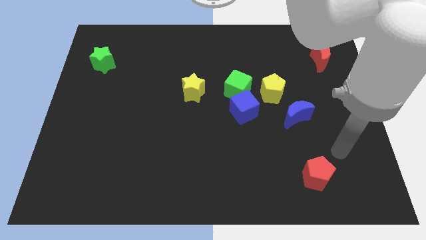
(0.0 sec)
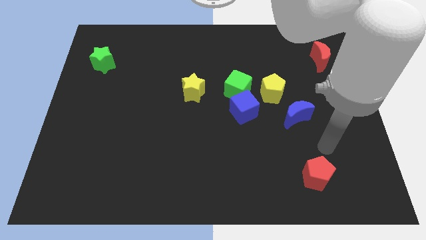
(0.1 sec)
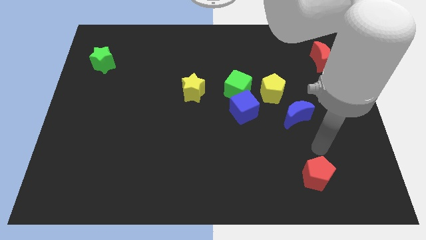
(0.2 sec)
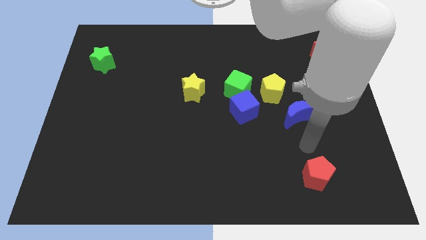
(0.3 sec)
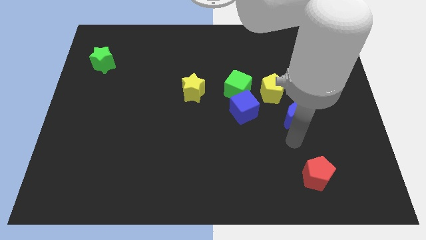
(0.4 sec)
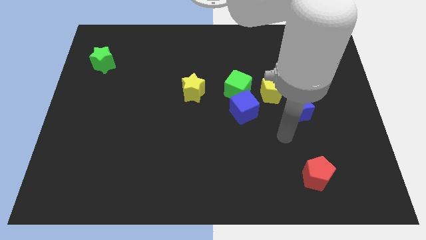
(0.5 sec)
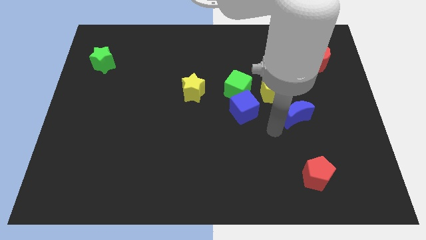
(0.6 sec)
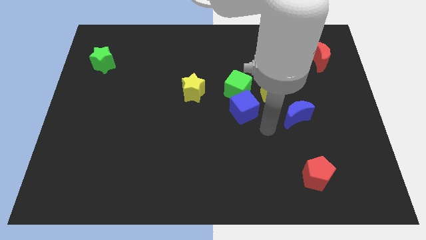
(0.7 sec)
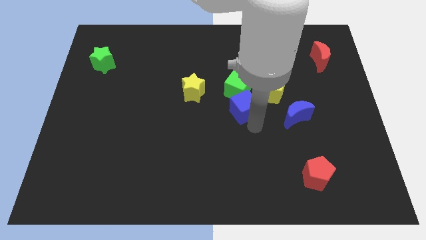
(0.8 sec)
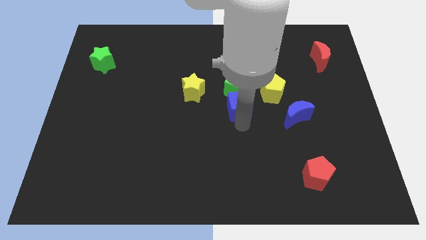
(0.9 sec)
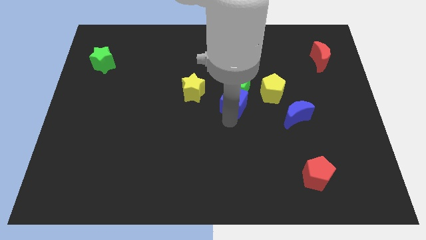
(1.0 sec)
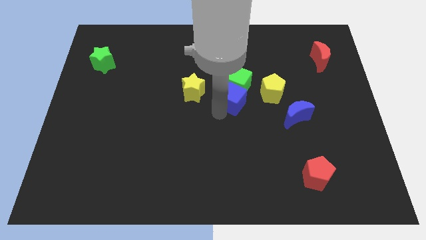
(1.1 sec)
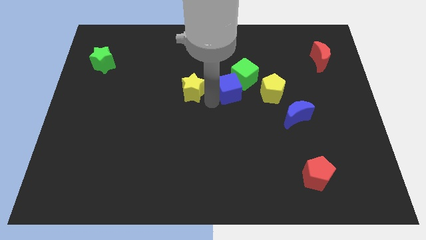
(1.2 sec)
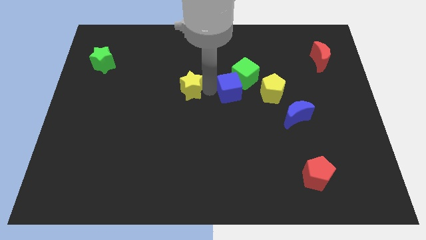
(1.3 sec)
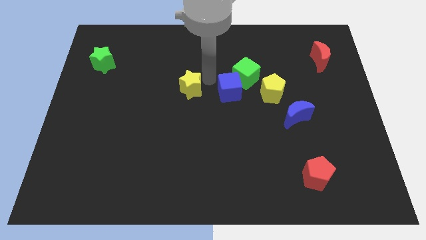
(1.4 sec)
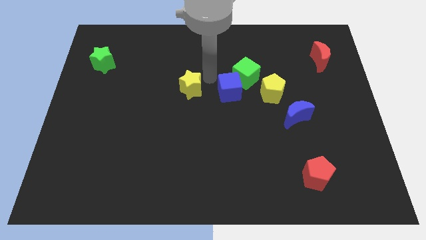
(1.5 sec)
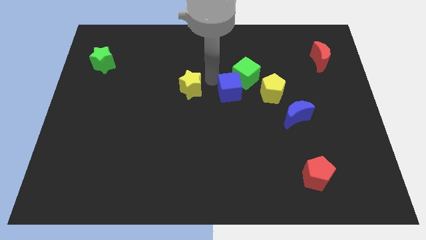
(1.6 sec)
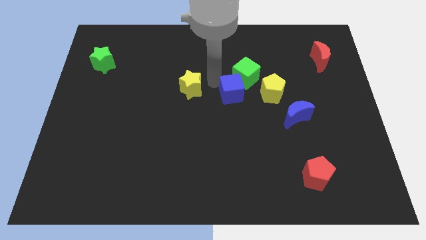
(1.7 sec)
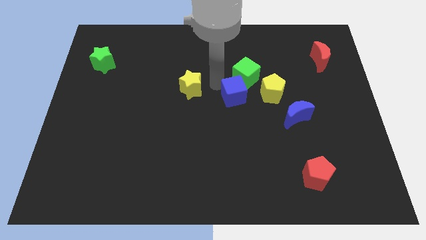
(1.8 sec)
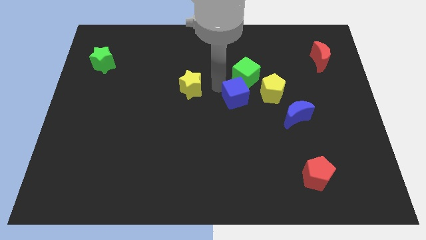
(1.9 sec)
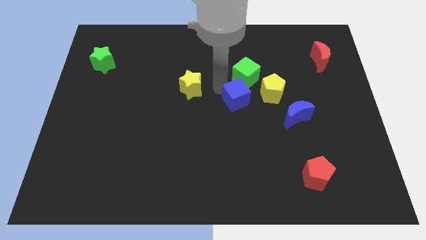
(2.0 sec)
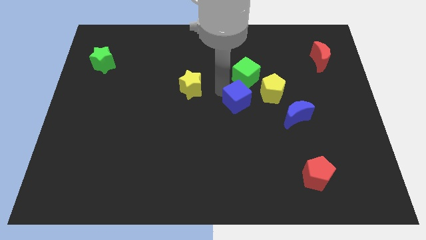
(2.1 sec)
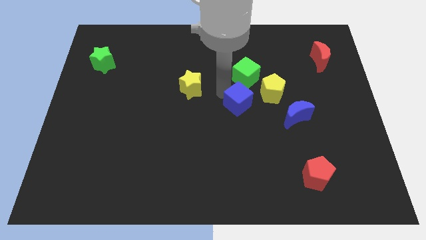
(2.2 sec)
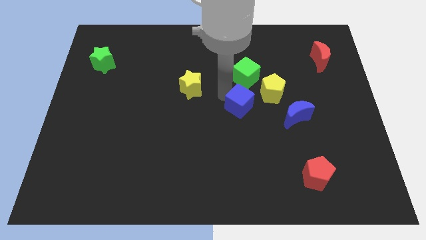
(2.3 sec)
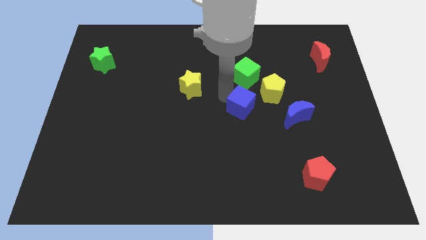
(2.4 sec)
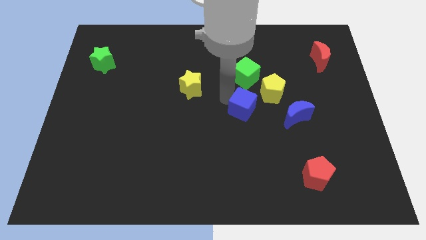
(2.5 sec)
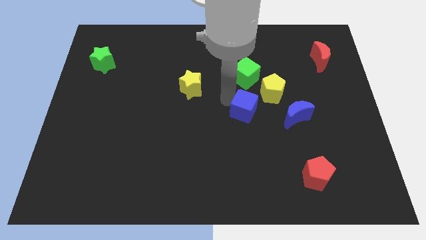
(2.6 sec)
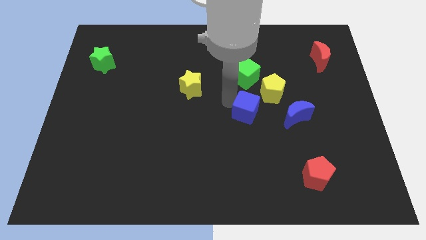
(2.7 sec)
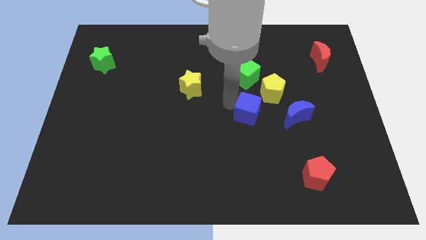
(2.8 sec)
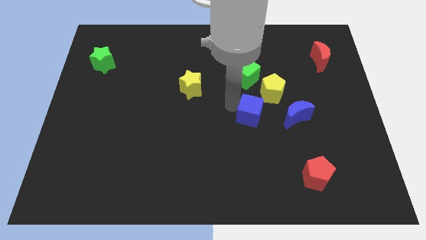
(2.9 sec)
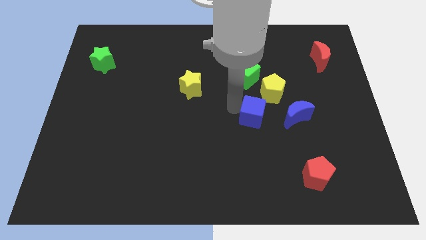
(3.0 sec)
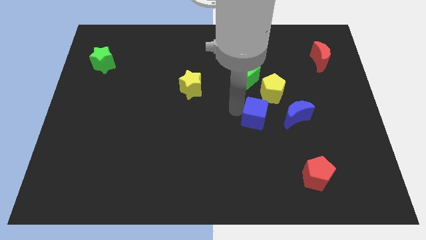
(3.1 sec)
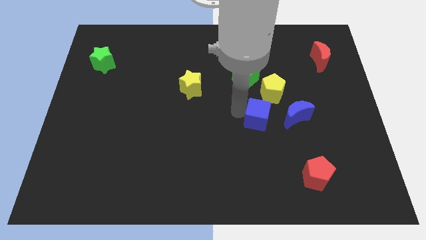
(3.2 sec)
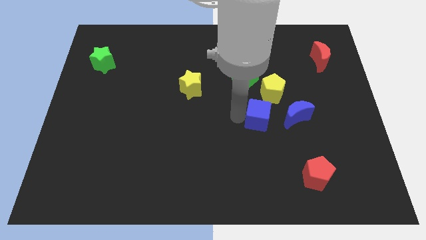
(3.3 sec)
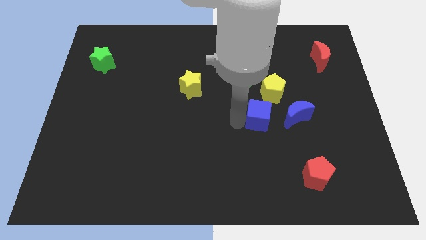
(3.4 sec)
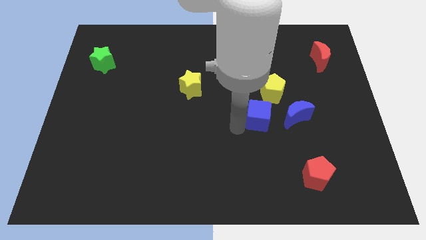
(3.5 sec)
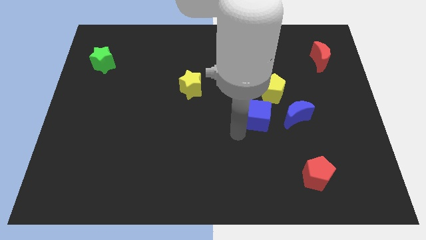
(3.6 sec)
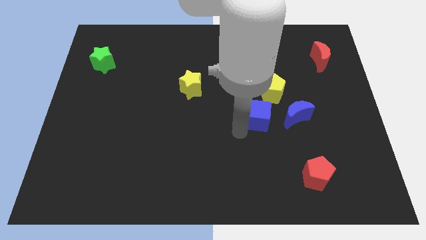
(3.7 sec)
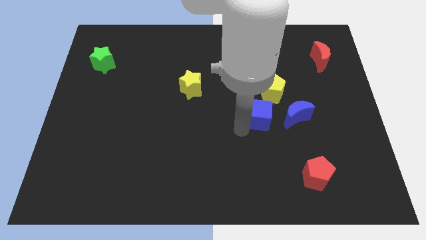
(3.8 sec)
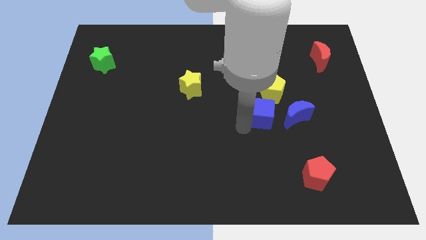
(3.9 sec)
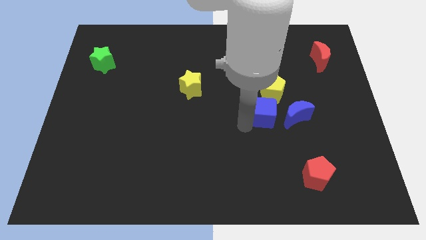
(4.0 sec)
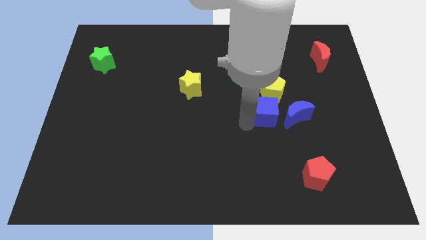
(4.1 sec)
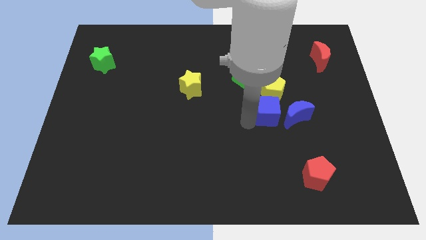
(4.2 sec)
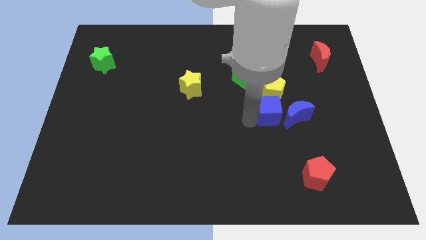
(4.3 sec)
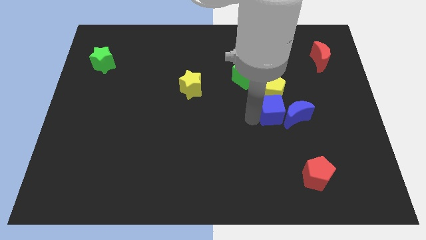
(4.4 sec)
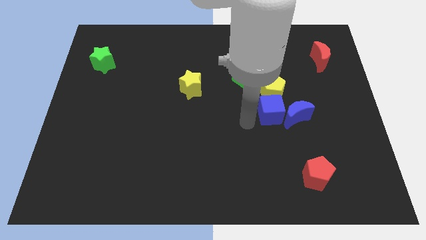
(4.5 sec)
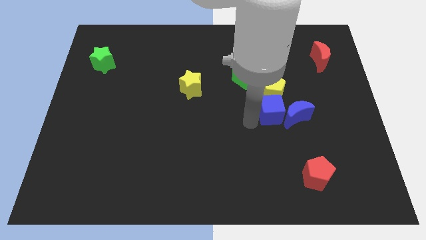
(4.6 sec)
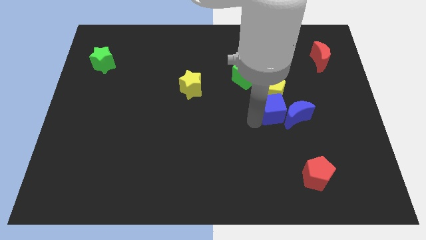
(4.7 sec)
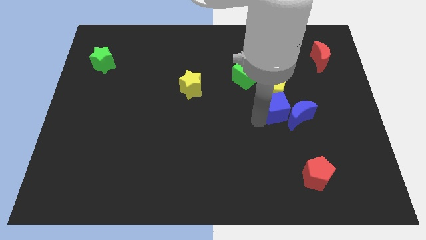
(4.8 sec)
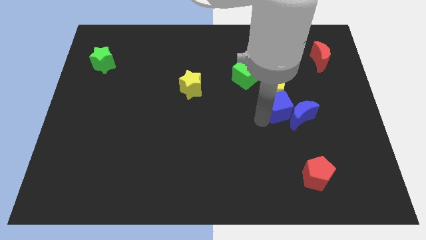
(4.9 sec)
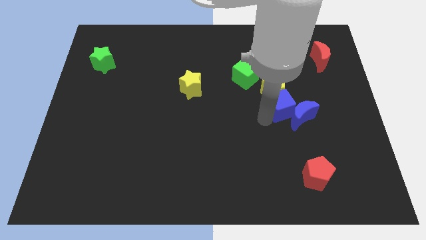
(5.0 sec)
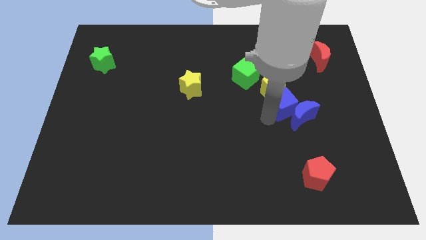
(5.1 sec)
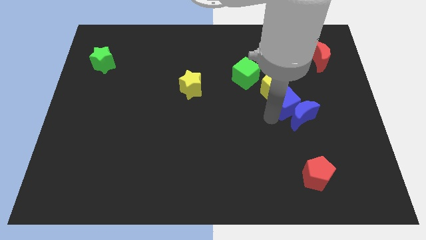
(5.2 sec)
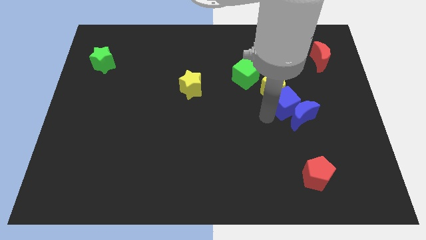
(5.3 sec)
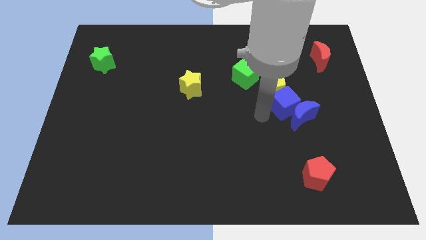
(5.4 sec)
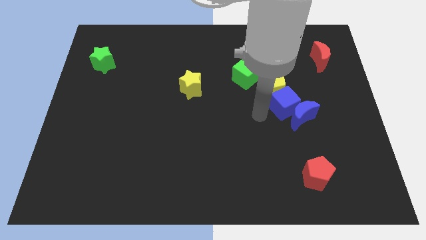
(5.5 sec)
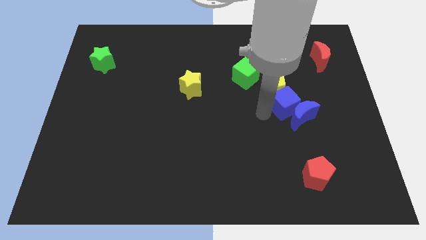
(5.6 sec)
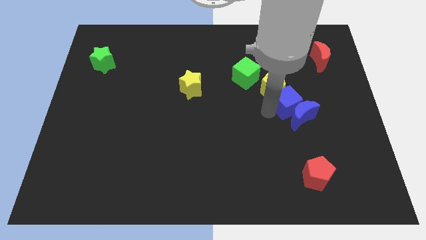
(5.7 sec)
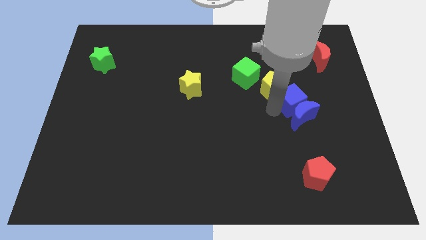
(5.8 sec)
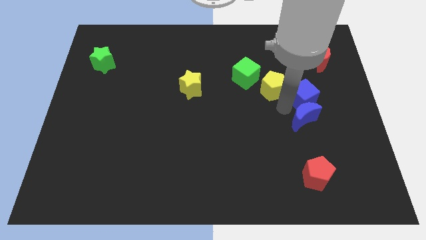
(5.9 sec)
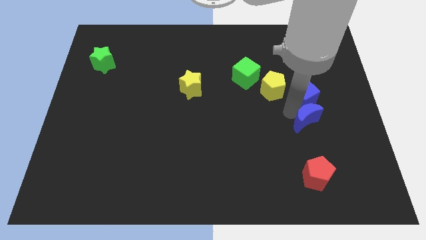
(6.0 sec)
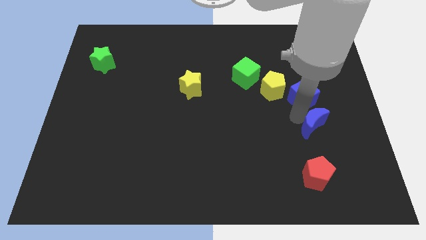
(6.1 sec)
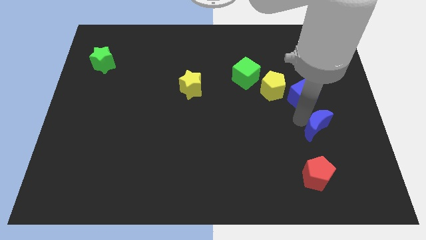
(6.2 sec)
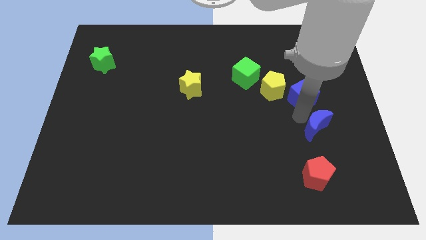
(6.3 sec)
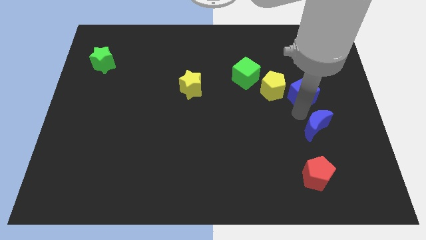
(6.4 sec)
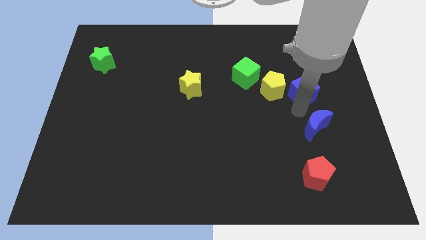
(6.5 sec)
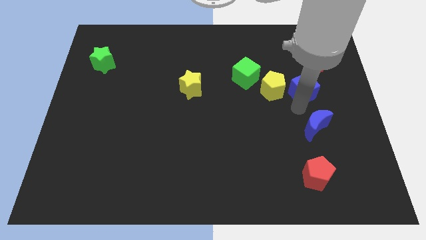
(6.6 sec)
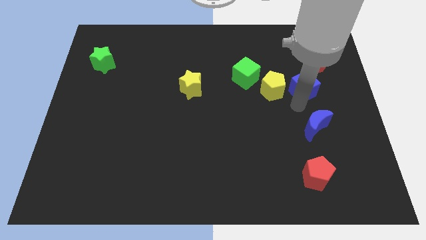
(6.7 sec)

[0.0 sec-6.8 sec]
move the blue cube to the bottom left side of the red moon
